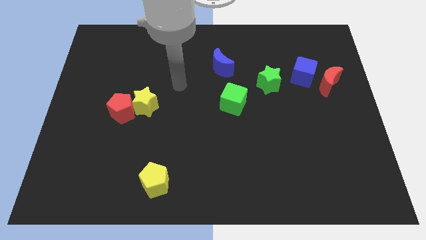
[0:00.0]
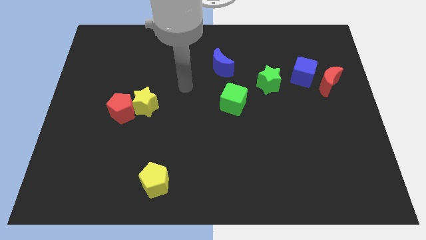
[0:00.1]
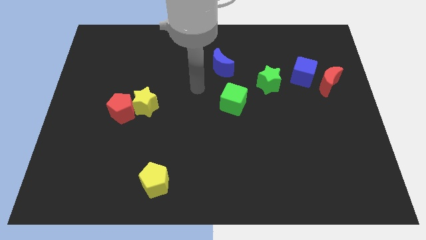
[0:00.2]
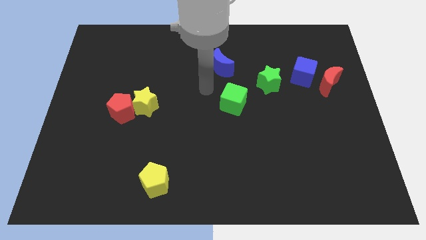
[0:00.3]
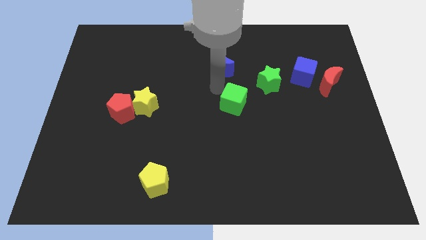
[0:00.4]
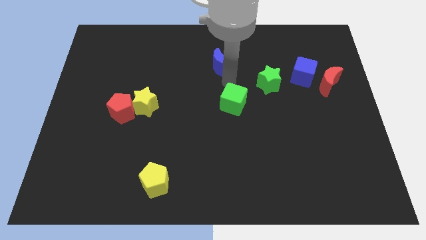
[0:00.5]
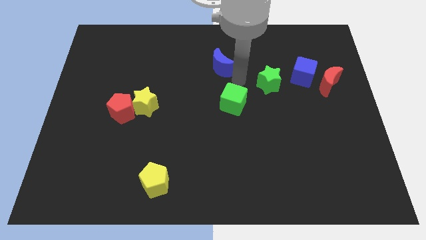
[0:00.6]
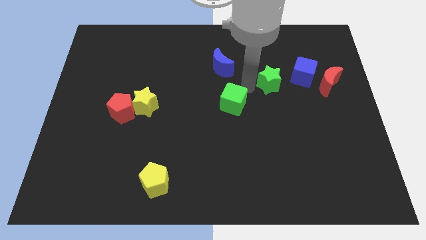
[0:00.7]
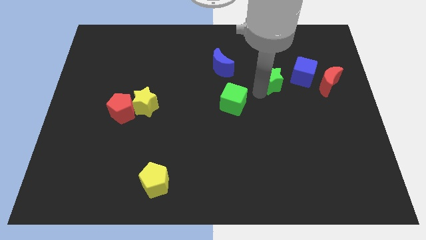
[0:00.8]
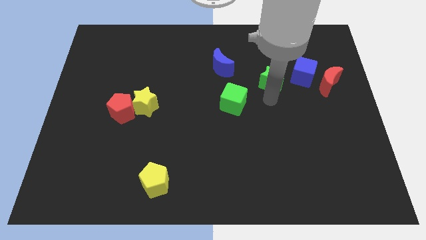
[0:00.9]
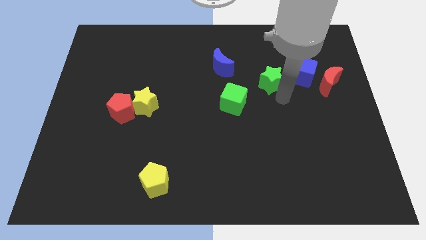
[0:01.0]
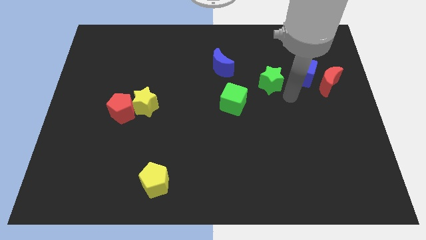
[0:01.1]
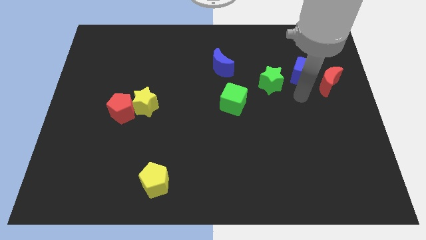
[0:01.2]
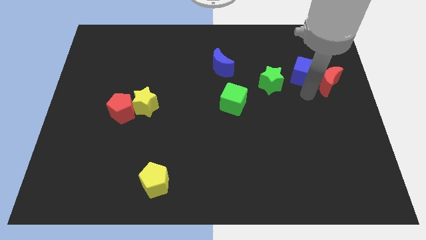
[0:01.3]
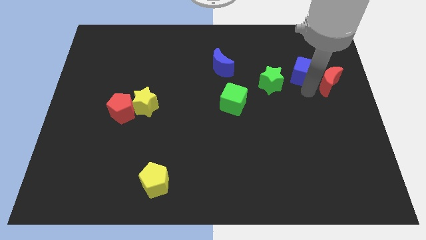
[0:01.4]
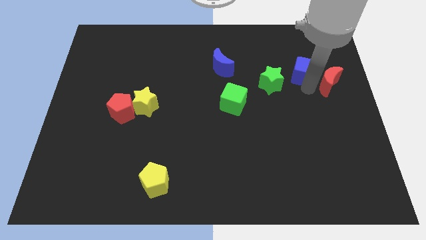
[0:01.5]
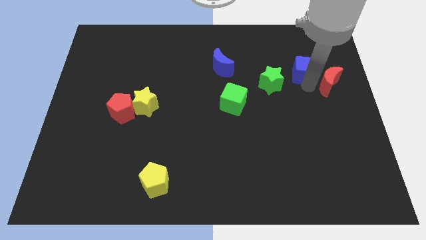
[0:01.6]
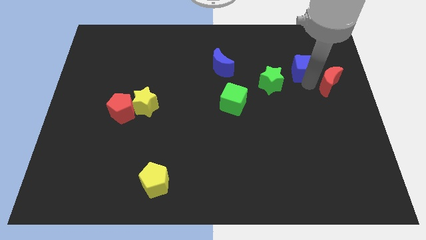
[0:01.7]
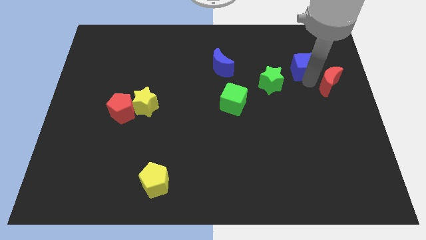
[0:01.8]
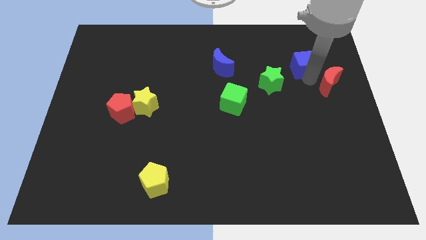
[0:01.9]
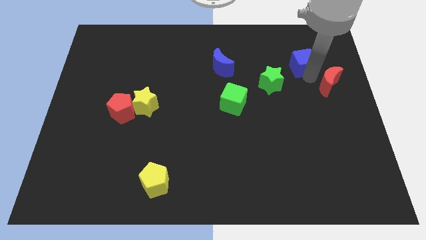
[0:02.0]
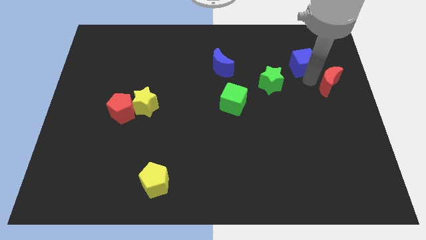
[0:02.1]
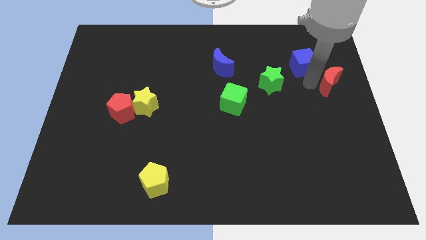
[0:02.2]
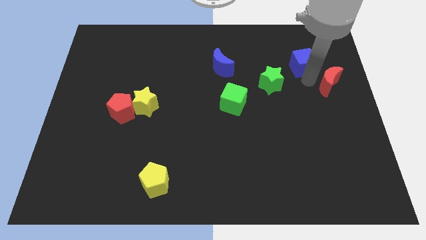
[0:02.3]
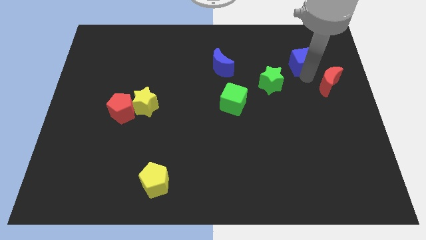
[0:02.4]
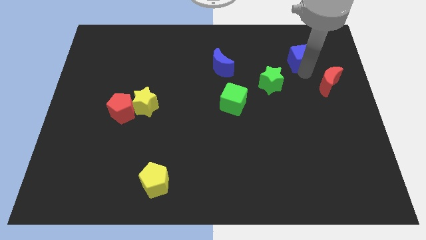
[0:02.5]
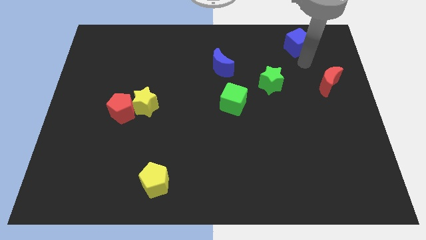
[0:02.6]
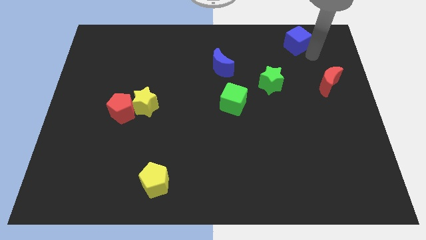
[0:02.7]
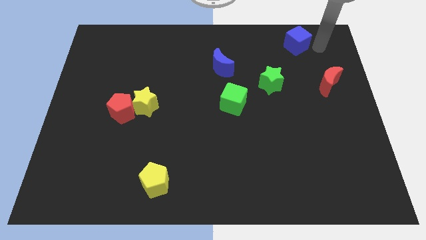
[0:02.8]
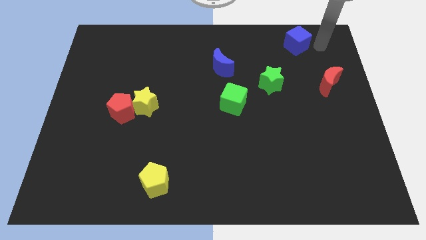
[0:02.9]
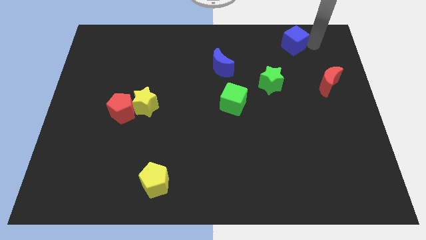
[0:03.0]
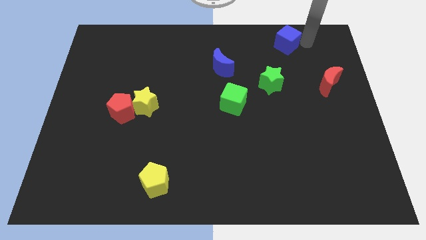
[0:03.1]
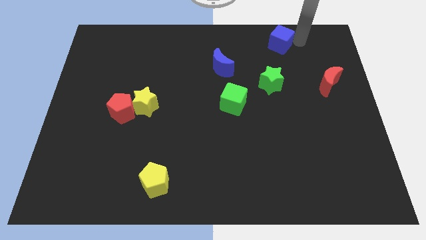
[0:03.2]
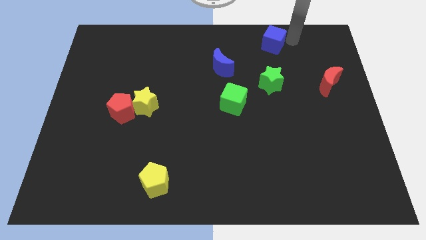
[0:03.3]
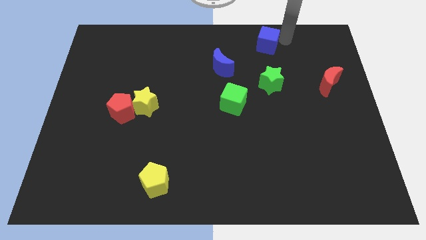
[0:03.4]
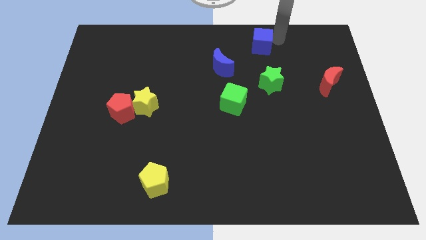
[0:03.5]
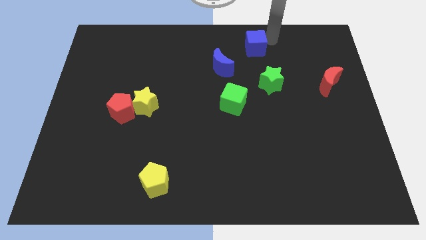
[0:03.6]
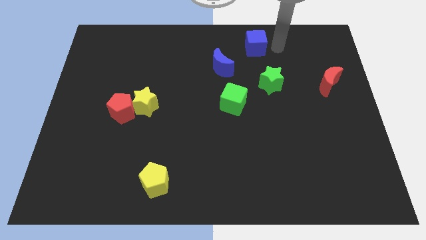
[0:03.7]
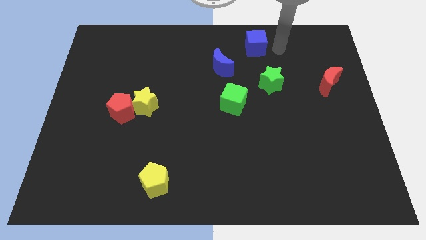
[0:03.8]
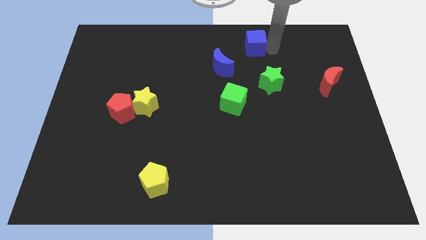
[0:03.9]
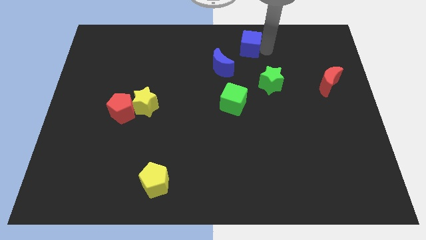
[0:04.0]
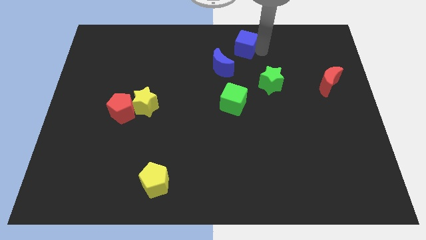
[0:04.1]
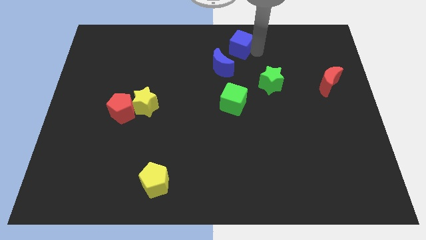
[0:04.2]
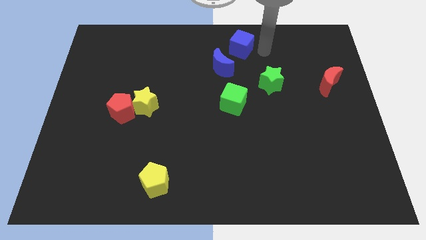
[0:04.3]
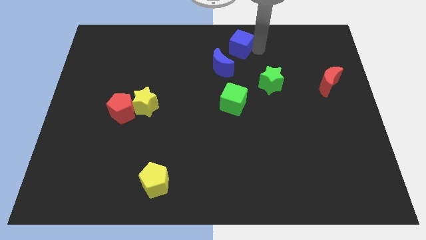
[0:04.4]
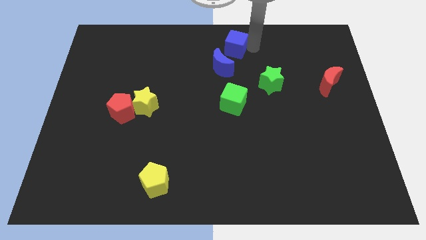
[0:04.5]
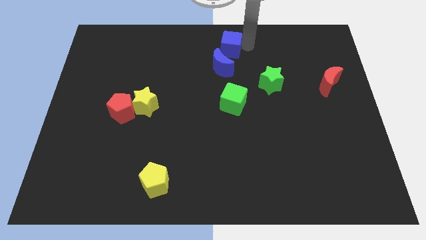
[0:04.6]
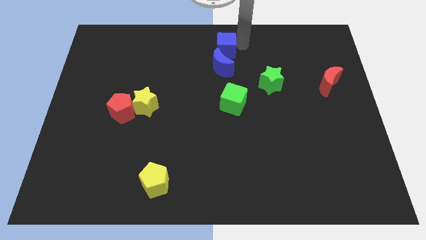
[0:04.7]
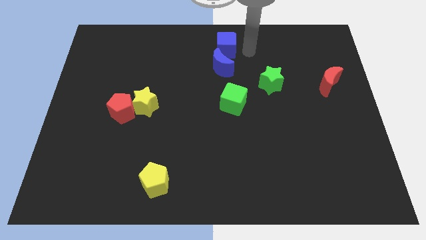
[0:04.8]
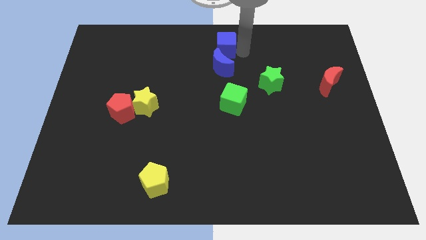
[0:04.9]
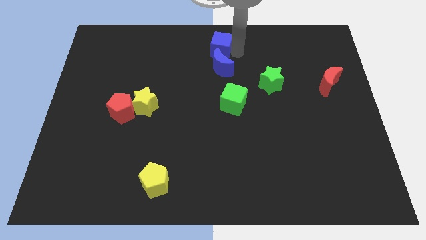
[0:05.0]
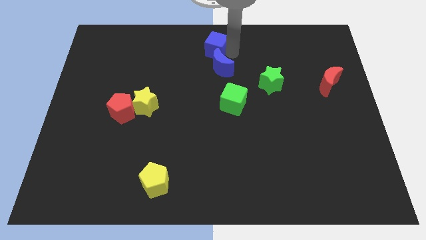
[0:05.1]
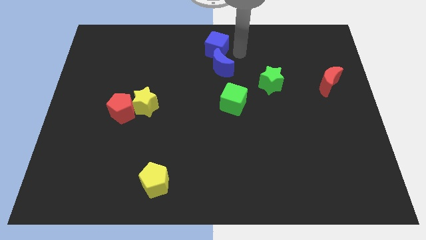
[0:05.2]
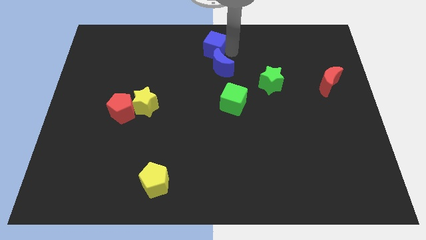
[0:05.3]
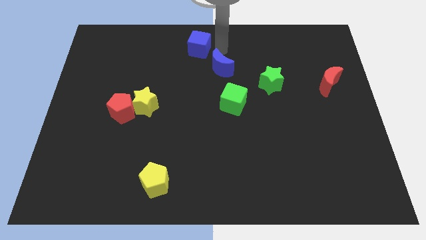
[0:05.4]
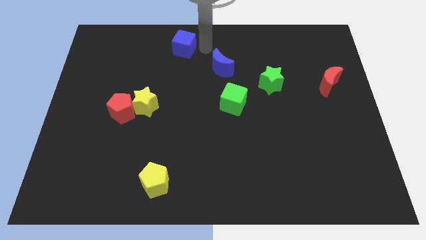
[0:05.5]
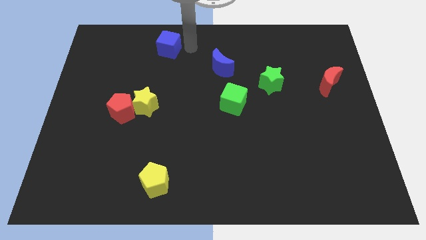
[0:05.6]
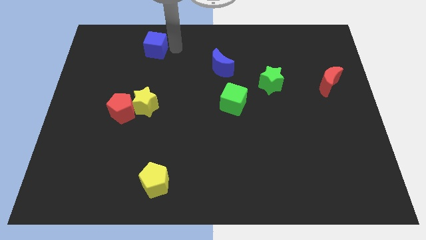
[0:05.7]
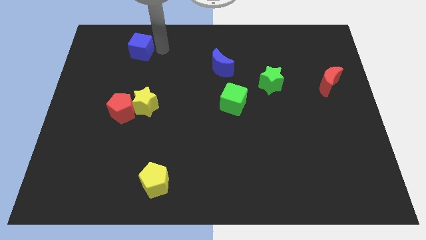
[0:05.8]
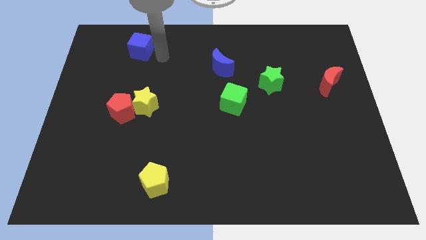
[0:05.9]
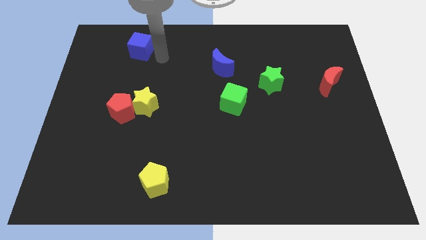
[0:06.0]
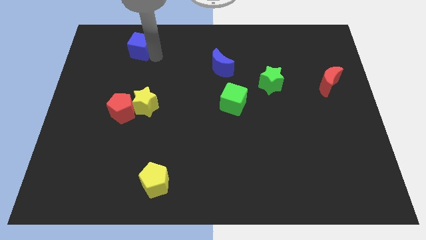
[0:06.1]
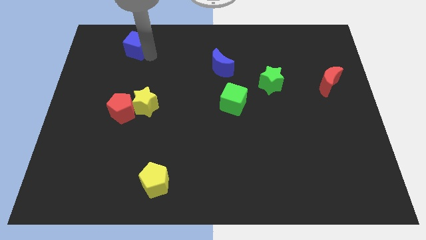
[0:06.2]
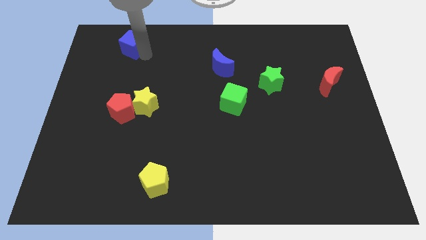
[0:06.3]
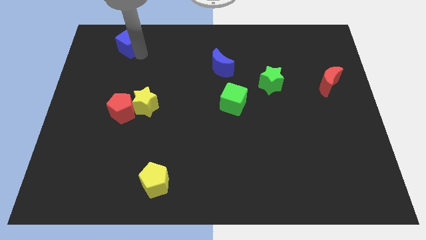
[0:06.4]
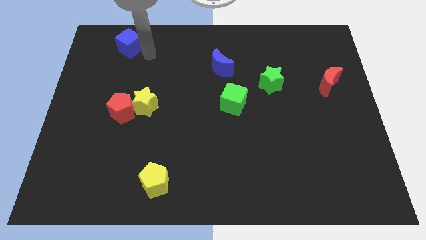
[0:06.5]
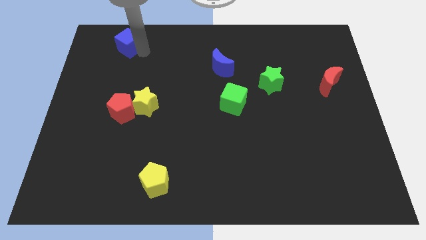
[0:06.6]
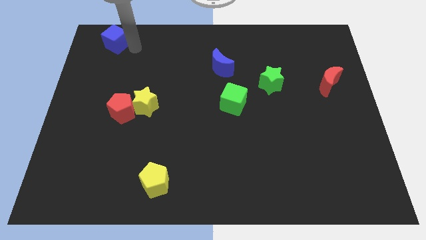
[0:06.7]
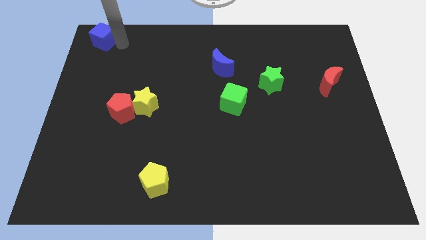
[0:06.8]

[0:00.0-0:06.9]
slide the blue cube to the upper left corner
